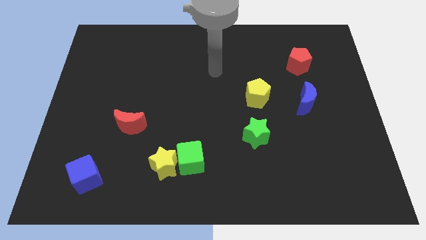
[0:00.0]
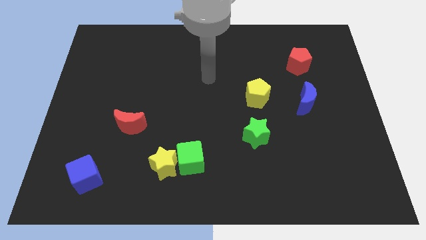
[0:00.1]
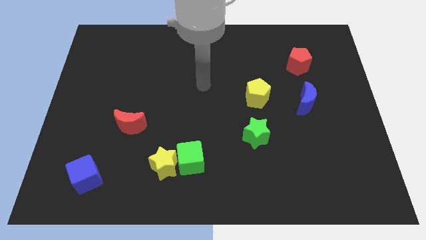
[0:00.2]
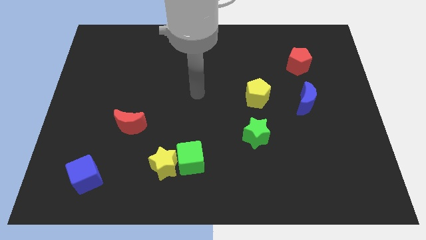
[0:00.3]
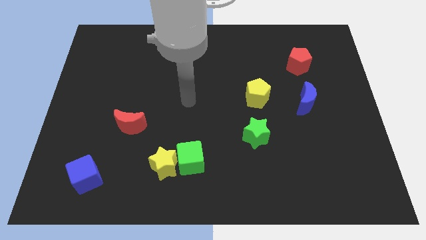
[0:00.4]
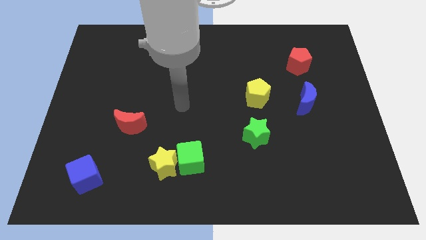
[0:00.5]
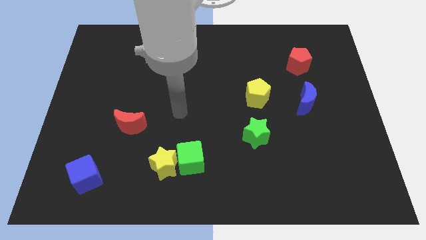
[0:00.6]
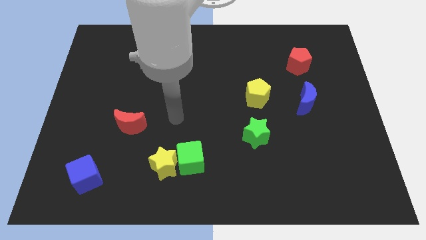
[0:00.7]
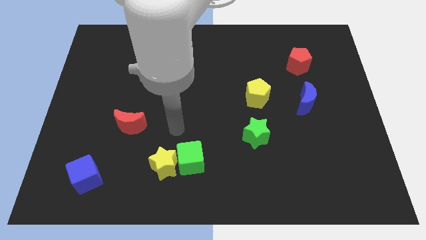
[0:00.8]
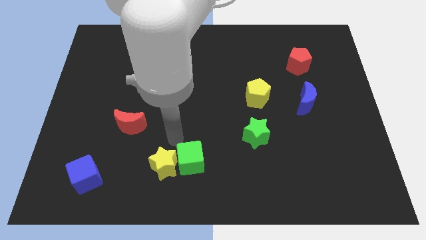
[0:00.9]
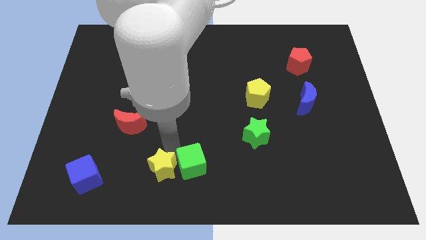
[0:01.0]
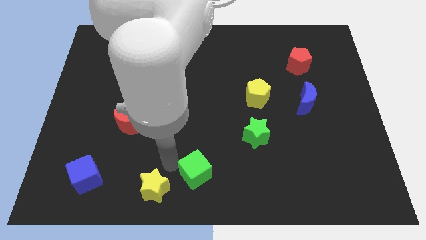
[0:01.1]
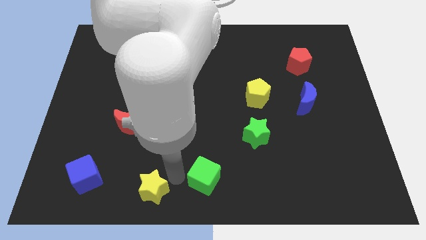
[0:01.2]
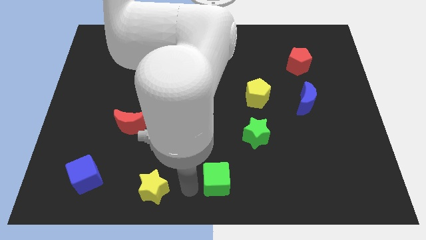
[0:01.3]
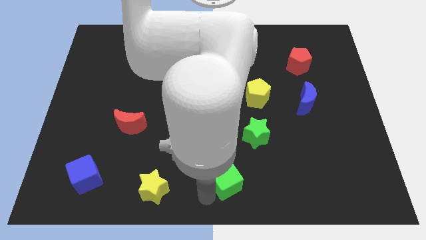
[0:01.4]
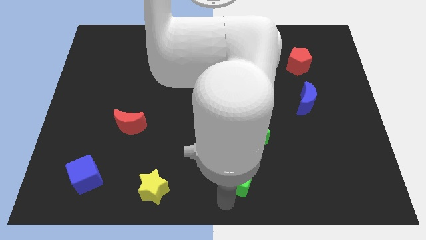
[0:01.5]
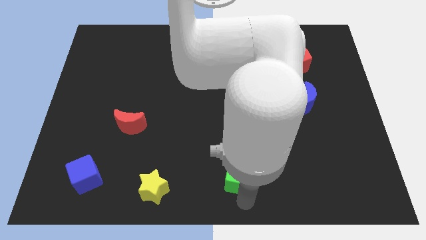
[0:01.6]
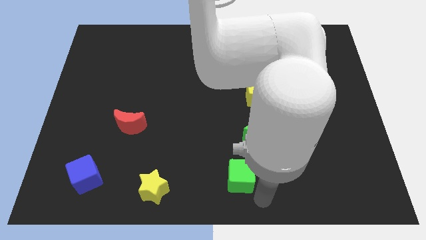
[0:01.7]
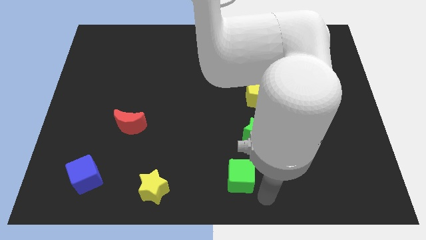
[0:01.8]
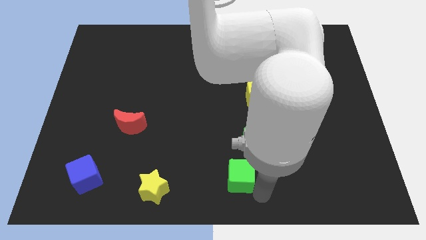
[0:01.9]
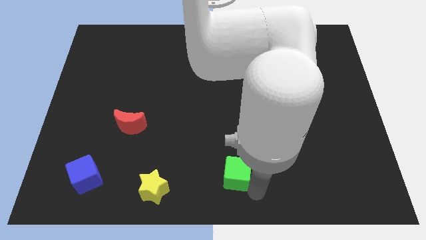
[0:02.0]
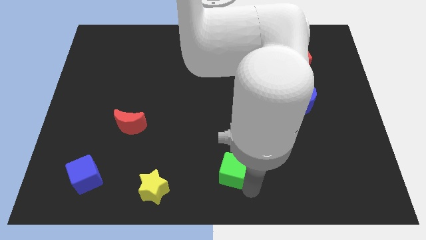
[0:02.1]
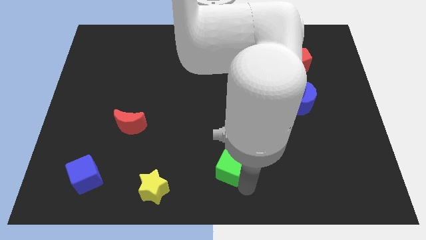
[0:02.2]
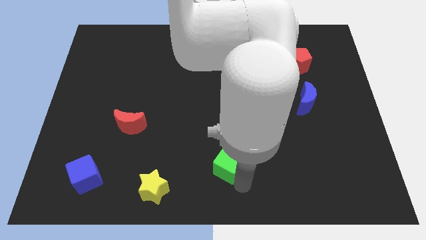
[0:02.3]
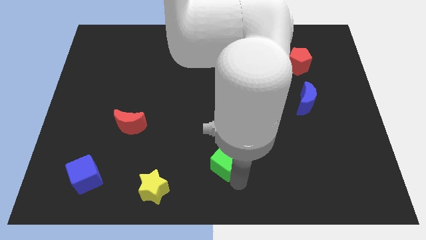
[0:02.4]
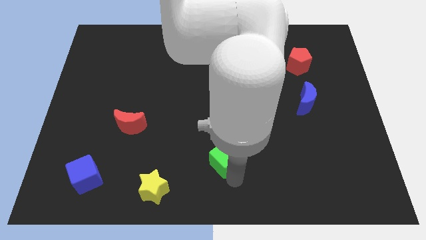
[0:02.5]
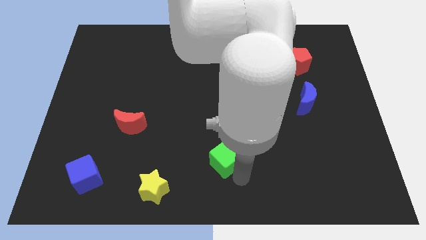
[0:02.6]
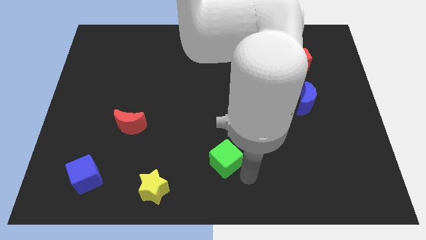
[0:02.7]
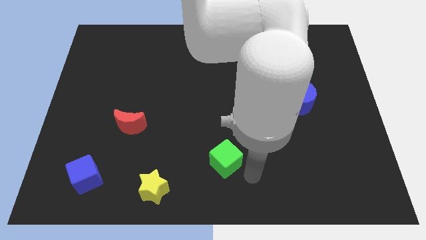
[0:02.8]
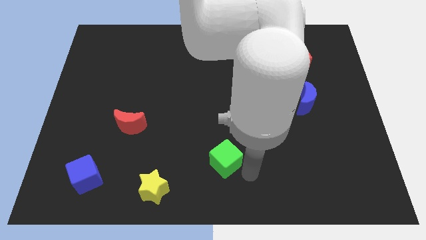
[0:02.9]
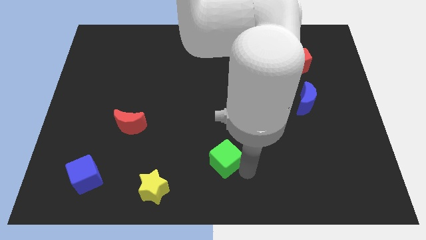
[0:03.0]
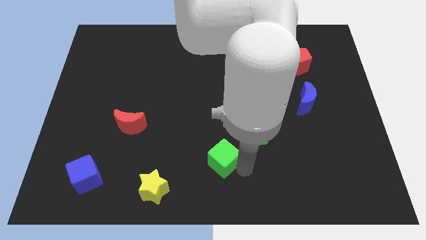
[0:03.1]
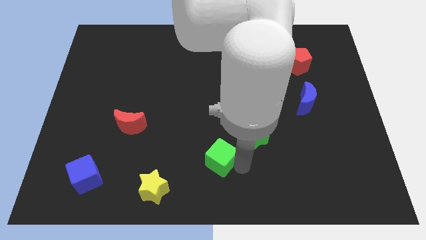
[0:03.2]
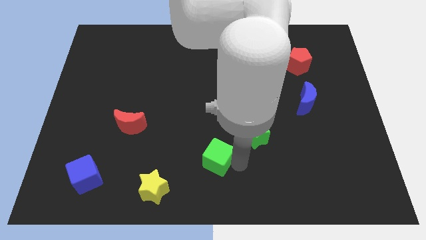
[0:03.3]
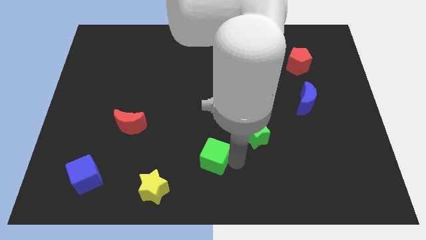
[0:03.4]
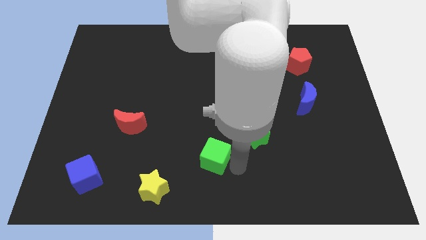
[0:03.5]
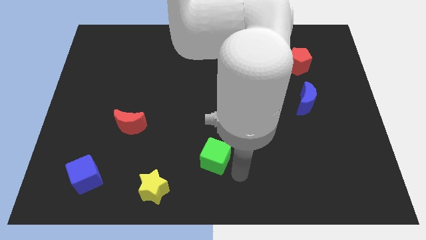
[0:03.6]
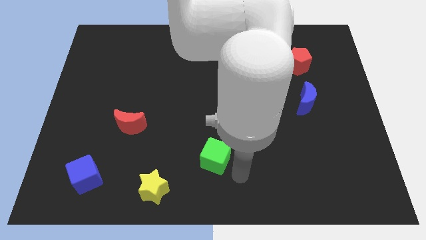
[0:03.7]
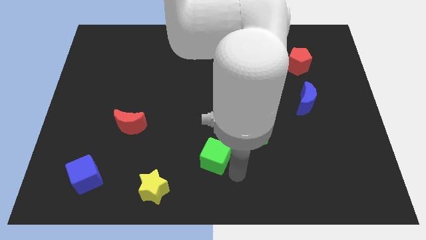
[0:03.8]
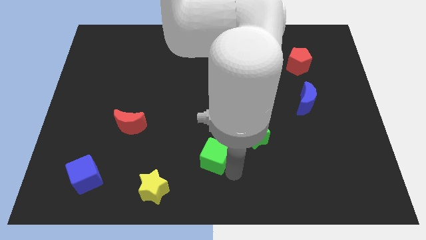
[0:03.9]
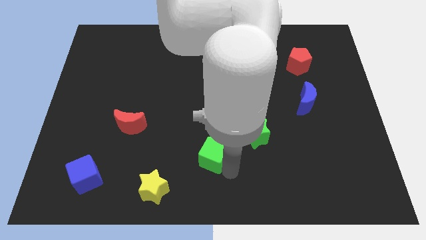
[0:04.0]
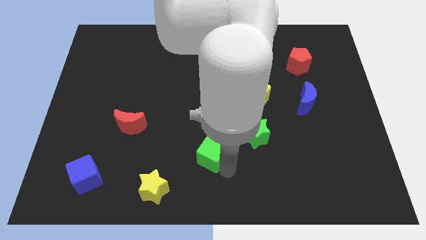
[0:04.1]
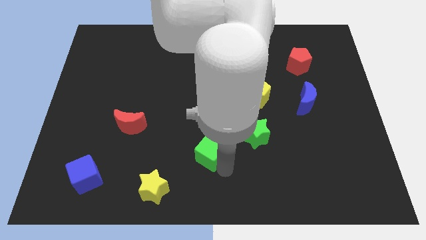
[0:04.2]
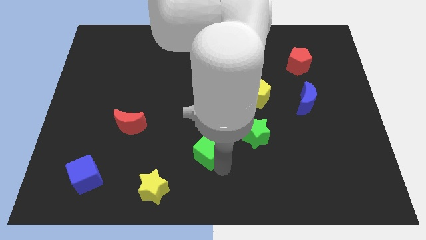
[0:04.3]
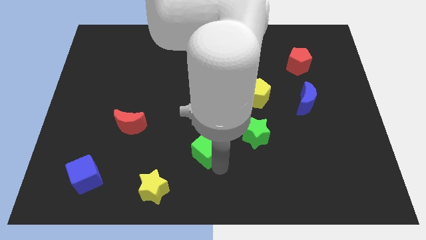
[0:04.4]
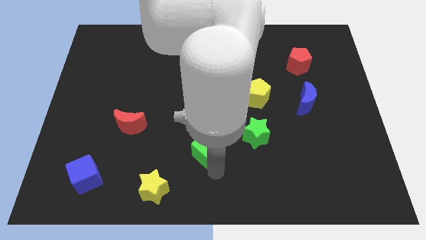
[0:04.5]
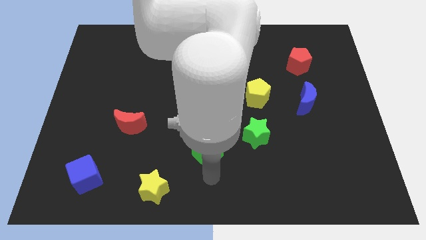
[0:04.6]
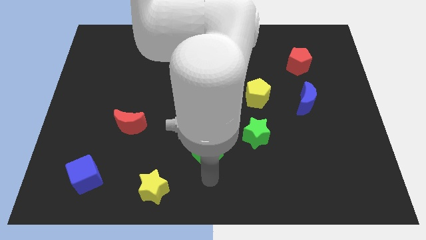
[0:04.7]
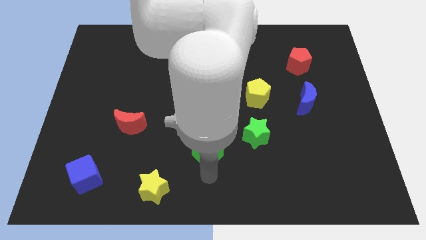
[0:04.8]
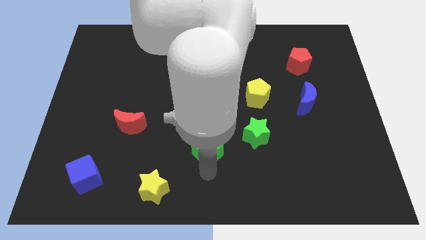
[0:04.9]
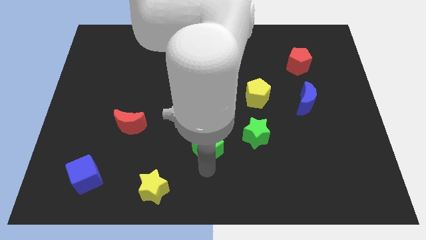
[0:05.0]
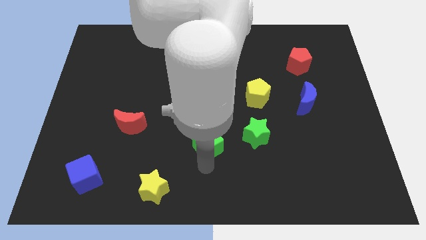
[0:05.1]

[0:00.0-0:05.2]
put the green cube to the middle of the board

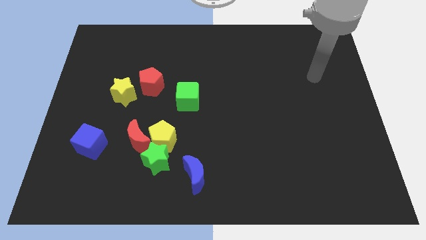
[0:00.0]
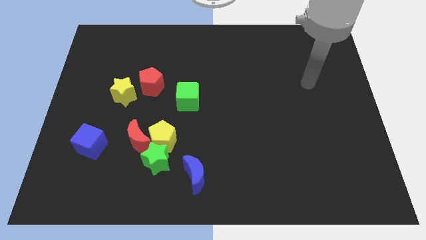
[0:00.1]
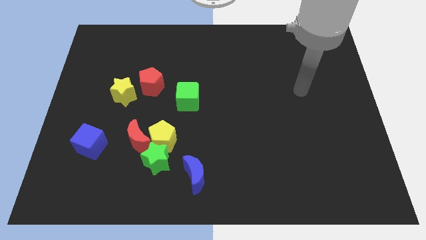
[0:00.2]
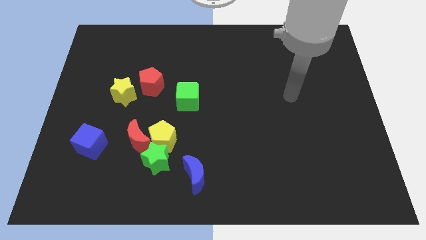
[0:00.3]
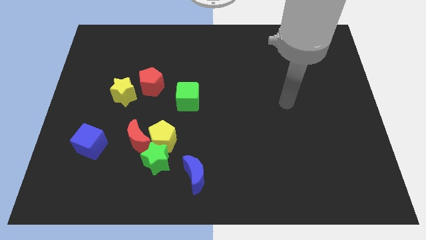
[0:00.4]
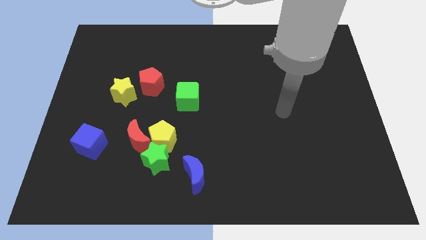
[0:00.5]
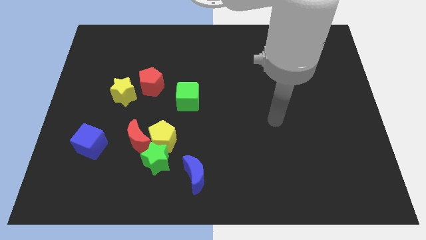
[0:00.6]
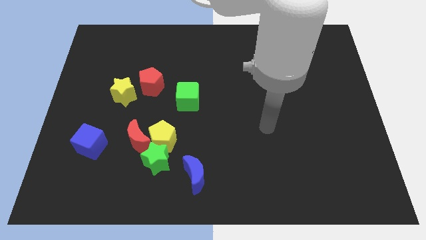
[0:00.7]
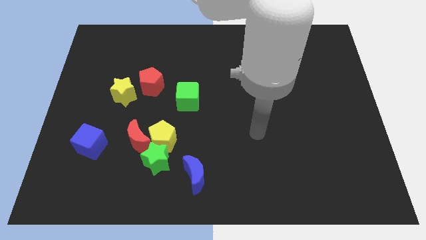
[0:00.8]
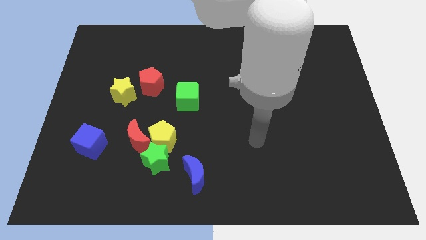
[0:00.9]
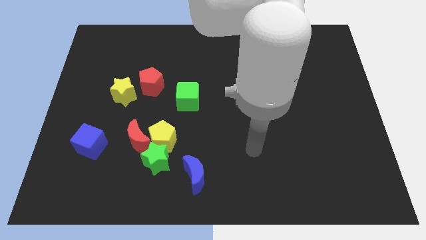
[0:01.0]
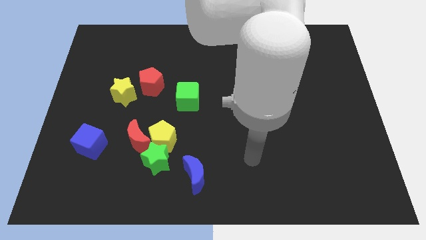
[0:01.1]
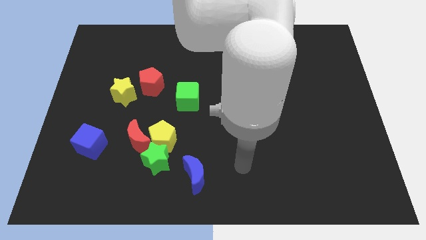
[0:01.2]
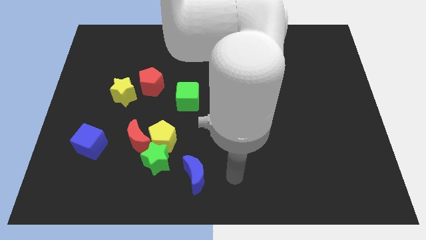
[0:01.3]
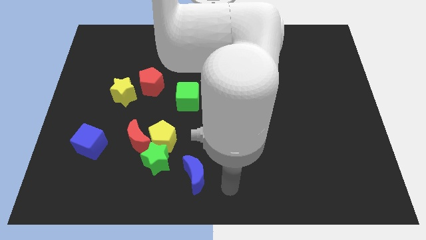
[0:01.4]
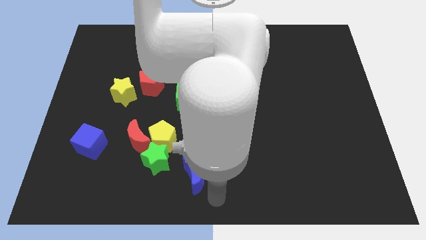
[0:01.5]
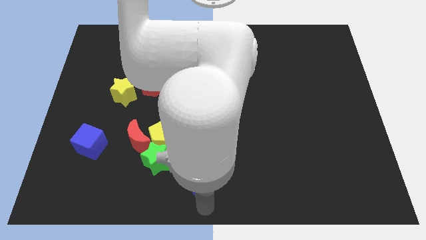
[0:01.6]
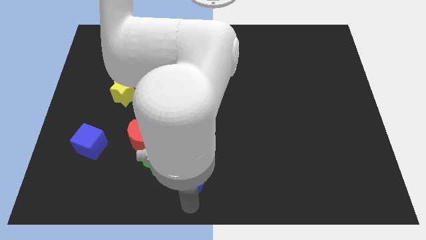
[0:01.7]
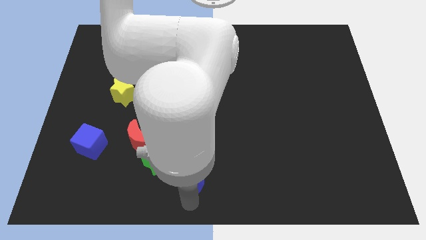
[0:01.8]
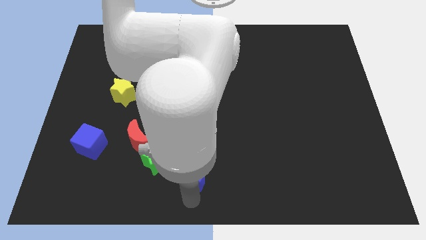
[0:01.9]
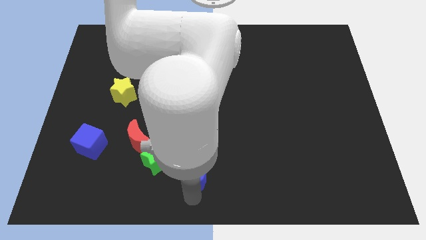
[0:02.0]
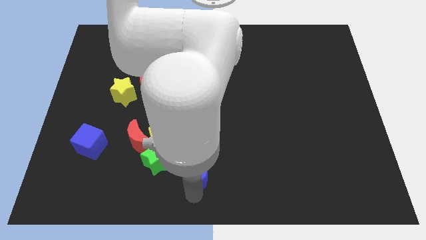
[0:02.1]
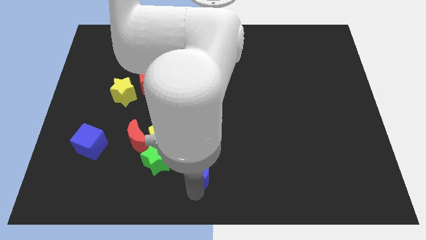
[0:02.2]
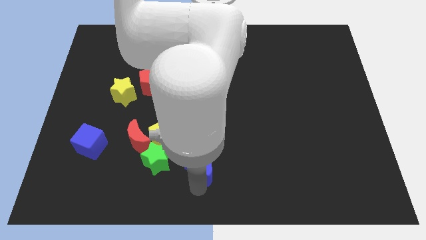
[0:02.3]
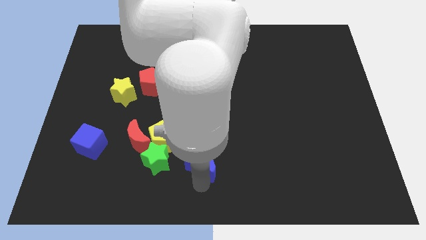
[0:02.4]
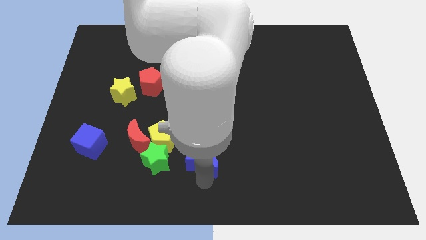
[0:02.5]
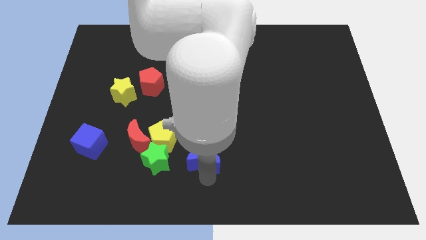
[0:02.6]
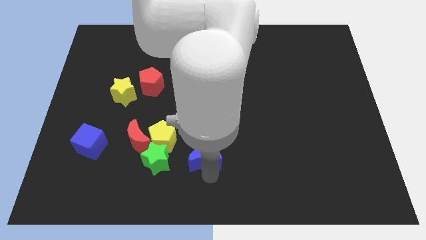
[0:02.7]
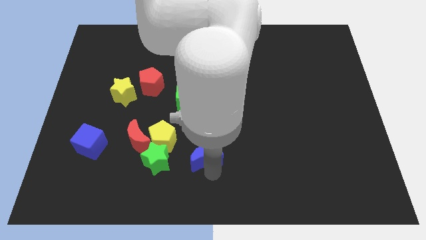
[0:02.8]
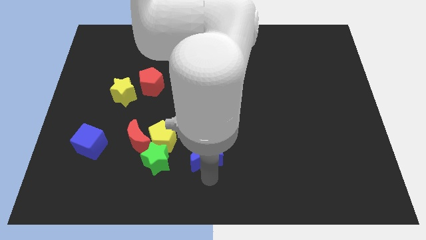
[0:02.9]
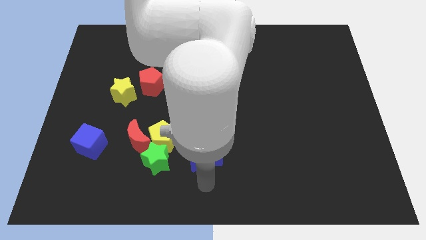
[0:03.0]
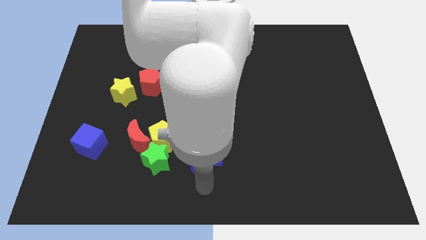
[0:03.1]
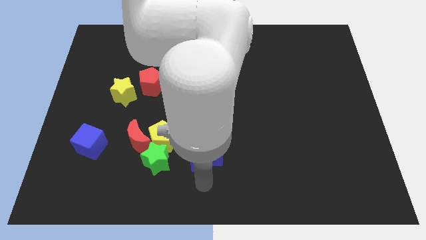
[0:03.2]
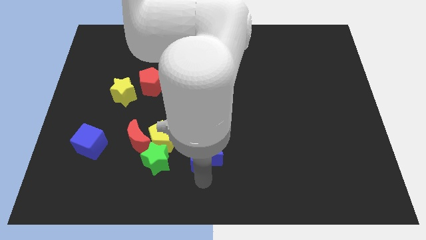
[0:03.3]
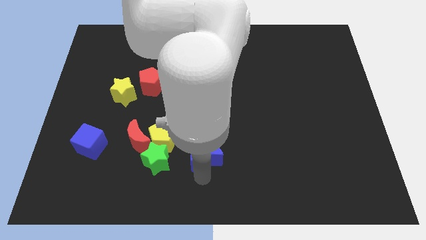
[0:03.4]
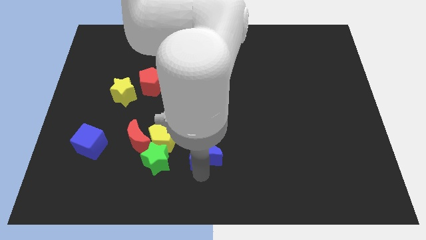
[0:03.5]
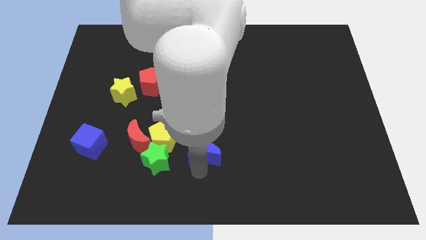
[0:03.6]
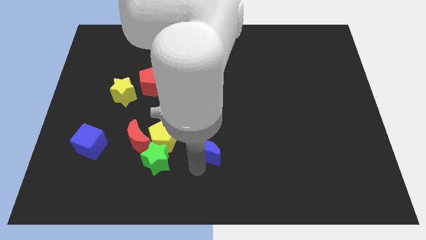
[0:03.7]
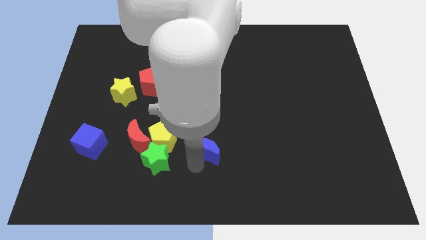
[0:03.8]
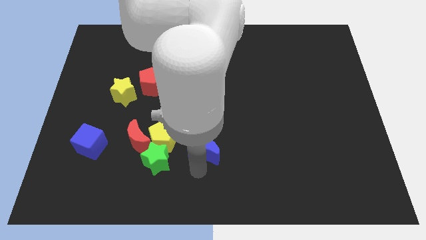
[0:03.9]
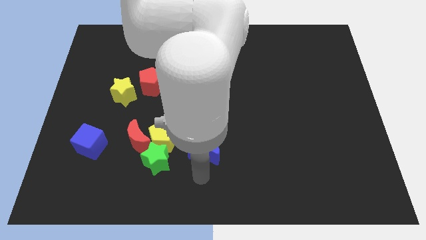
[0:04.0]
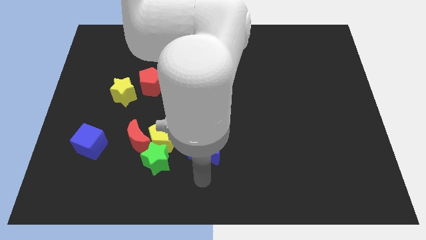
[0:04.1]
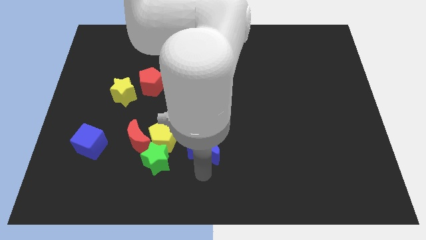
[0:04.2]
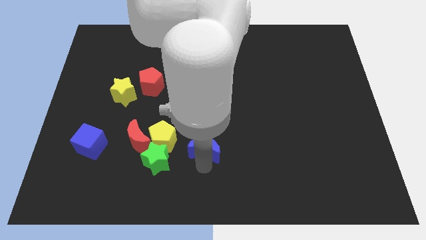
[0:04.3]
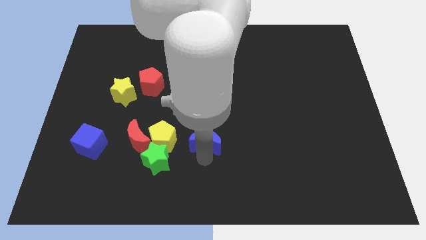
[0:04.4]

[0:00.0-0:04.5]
push the blue moon to the center of the board
